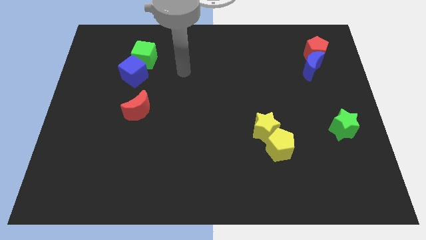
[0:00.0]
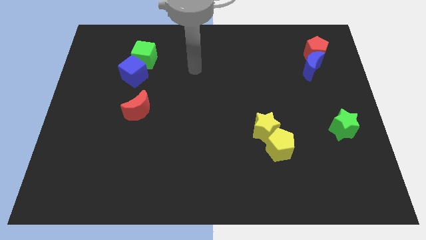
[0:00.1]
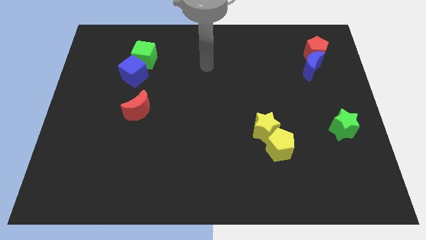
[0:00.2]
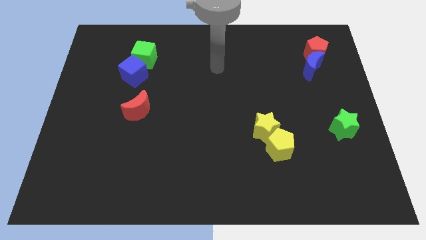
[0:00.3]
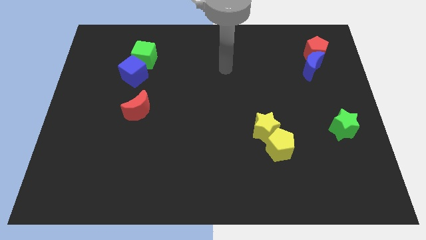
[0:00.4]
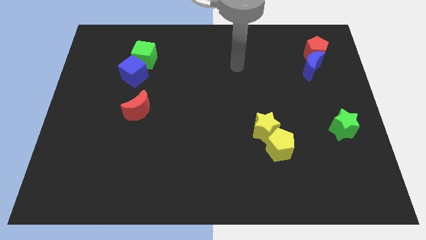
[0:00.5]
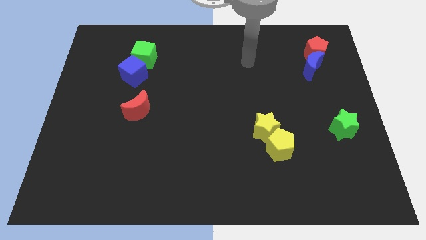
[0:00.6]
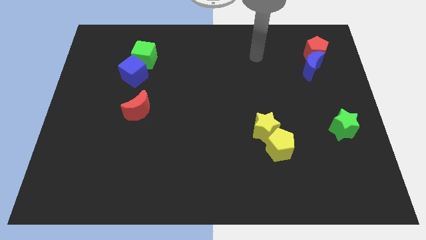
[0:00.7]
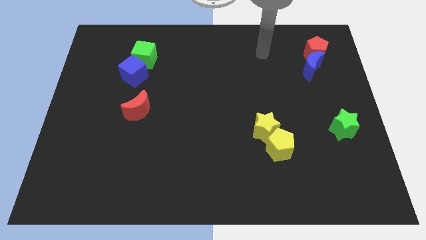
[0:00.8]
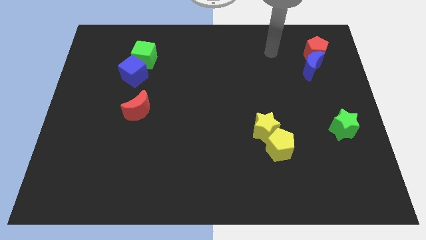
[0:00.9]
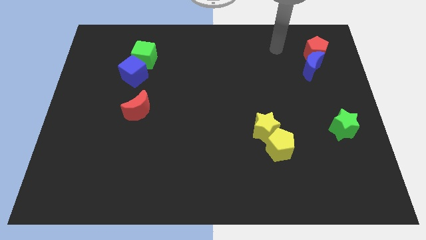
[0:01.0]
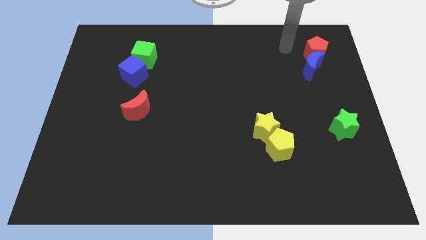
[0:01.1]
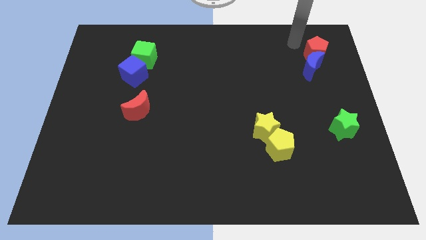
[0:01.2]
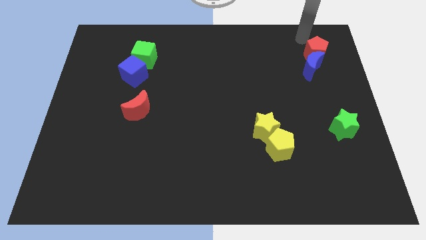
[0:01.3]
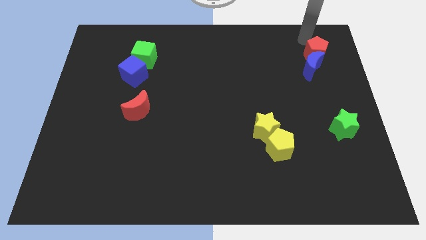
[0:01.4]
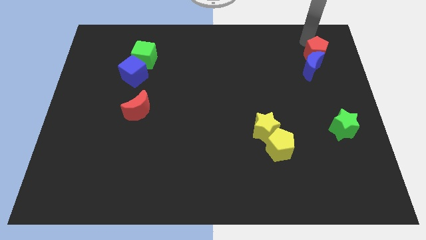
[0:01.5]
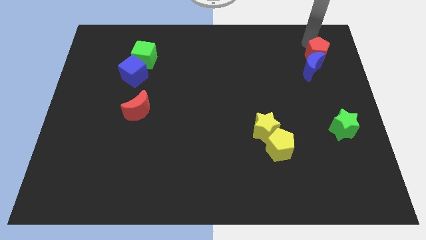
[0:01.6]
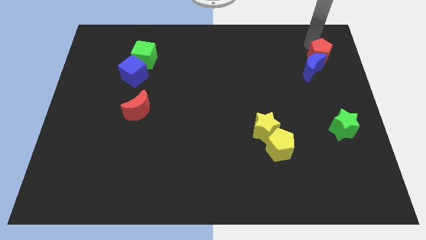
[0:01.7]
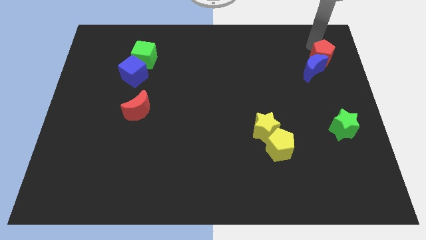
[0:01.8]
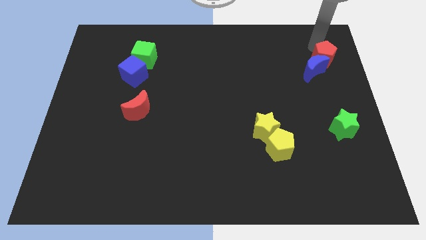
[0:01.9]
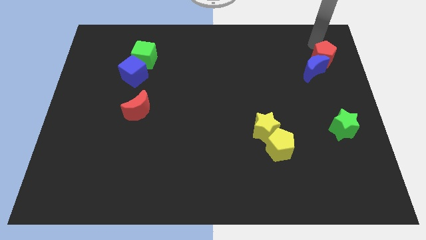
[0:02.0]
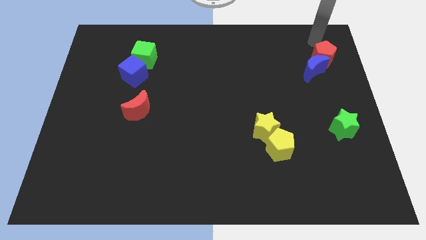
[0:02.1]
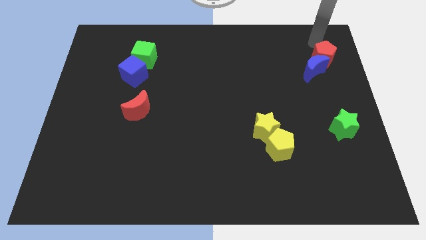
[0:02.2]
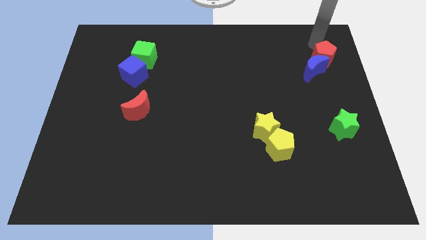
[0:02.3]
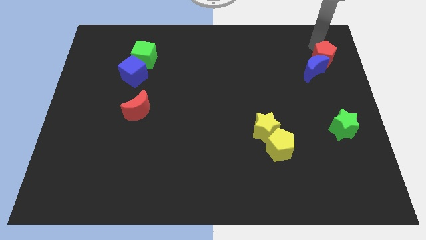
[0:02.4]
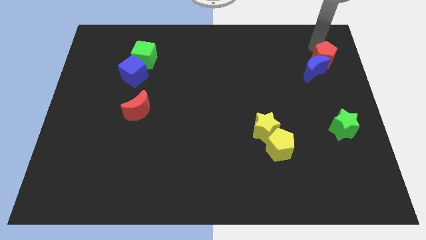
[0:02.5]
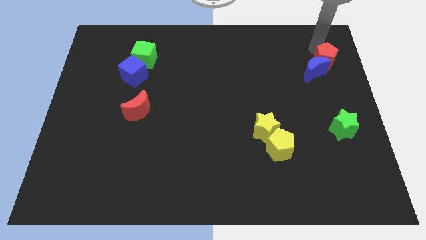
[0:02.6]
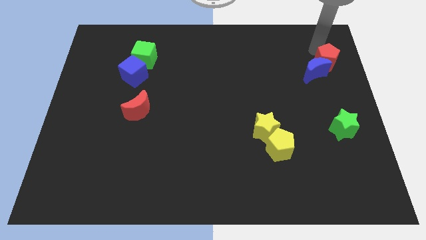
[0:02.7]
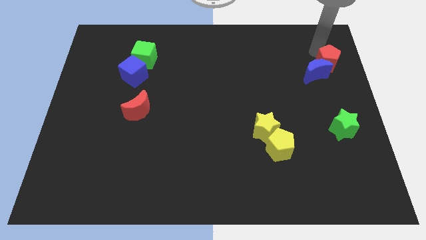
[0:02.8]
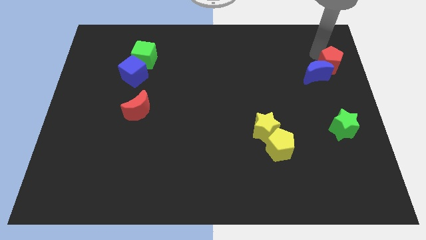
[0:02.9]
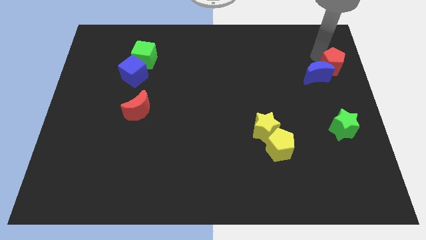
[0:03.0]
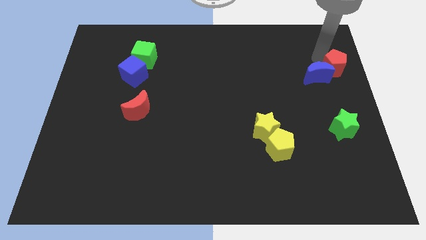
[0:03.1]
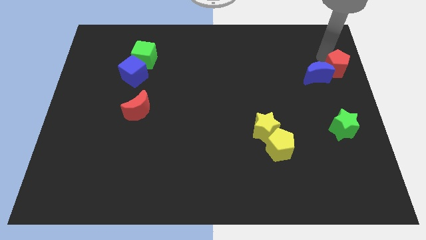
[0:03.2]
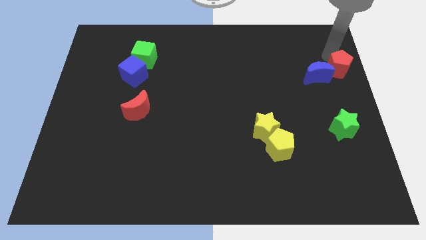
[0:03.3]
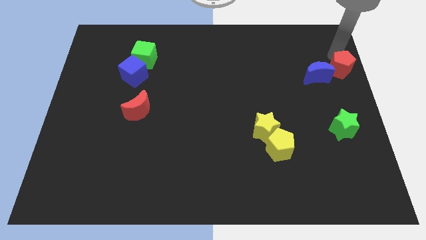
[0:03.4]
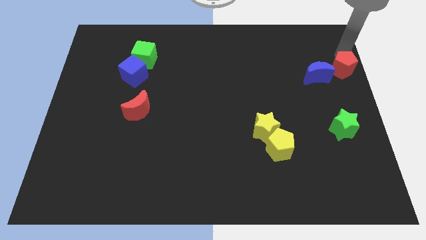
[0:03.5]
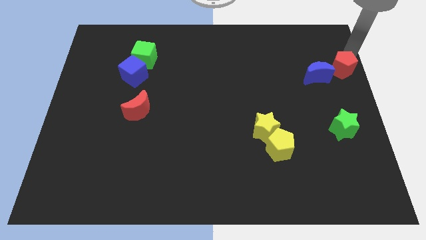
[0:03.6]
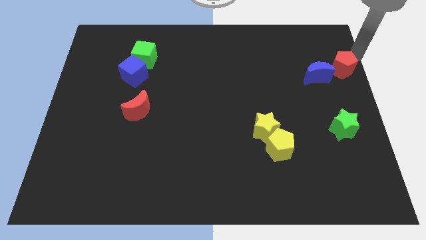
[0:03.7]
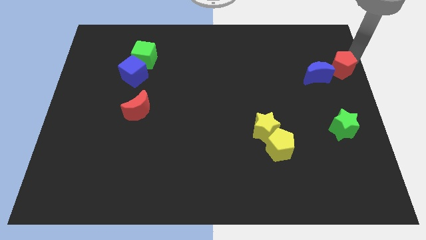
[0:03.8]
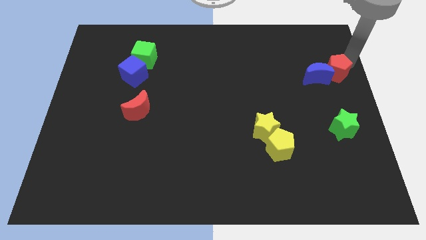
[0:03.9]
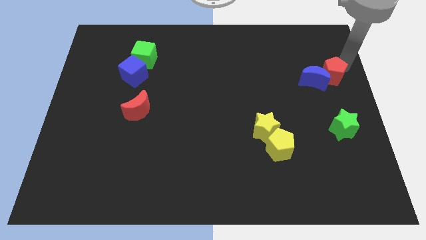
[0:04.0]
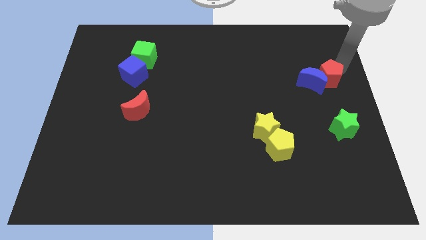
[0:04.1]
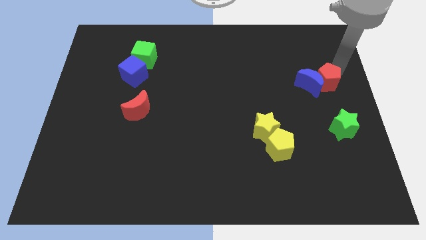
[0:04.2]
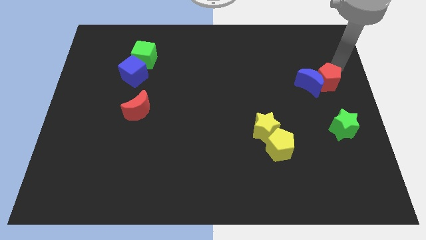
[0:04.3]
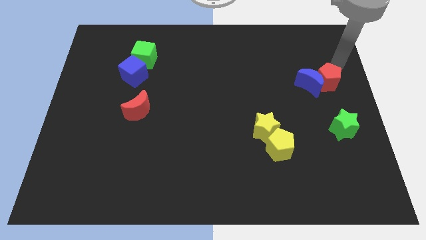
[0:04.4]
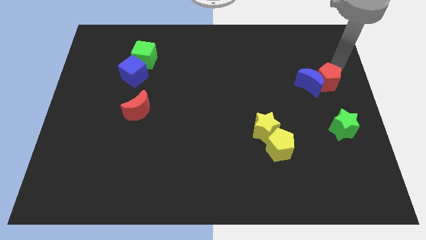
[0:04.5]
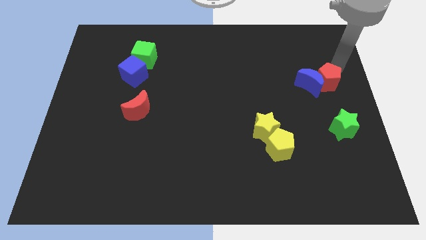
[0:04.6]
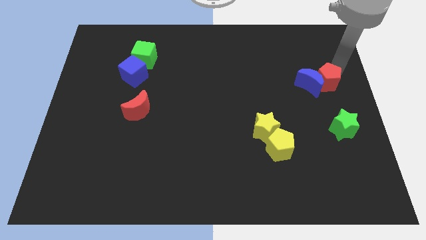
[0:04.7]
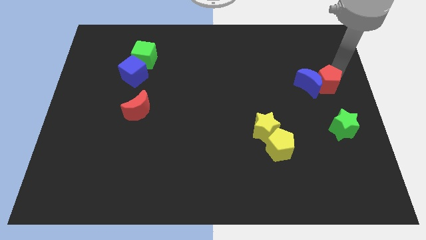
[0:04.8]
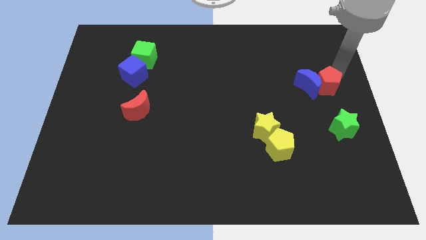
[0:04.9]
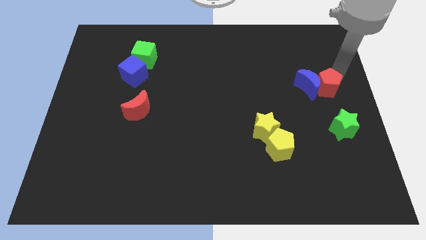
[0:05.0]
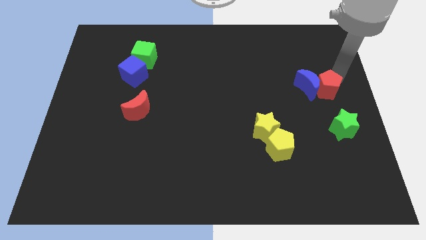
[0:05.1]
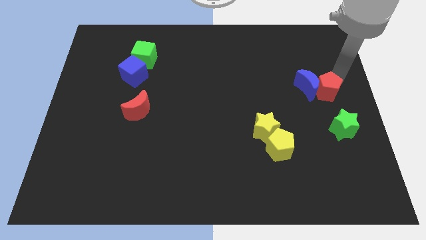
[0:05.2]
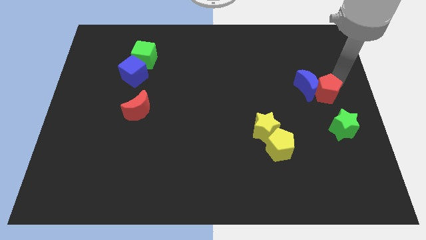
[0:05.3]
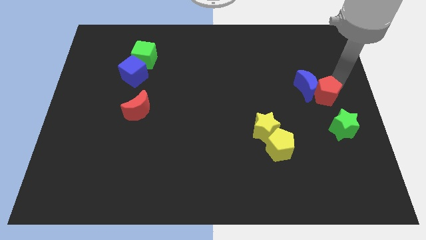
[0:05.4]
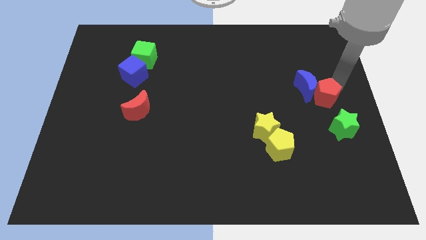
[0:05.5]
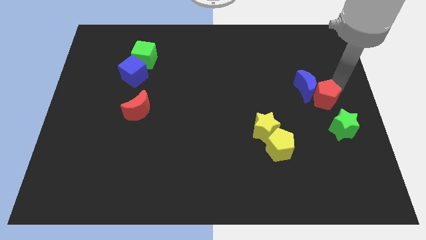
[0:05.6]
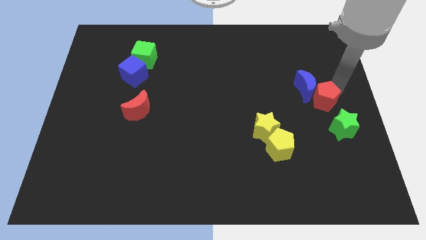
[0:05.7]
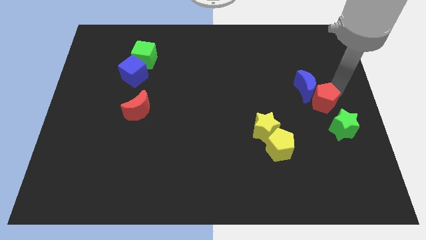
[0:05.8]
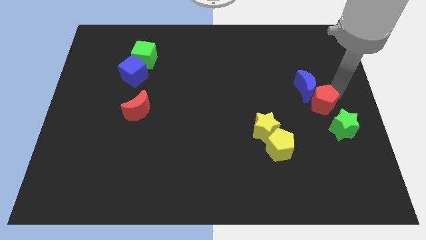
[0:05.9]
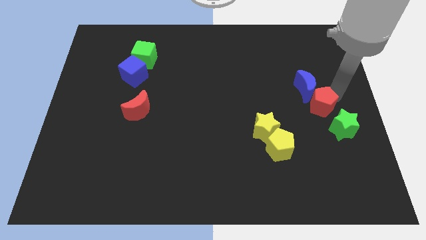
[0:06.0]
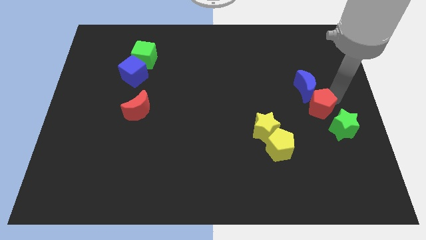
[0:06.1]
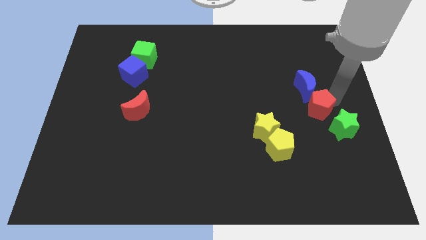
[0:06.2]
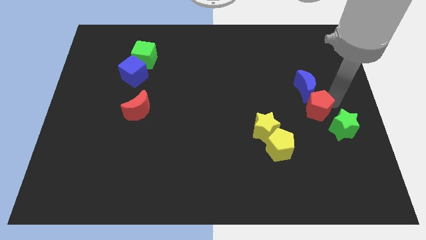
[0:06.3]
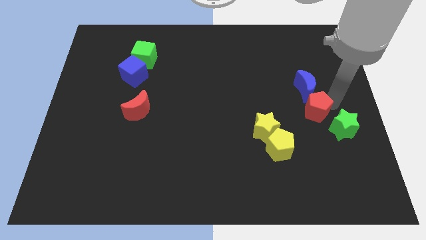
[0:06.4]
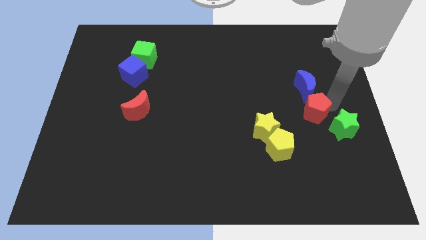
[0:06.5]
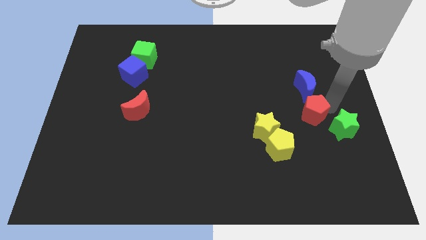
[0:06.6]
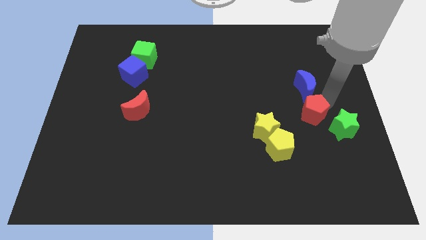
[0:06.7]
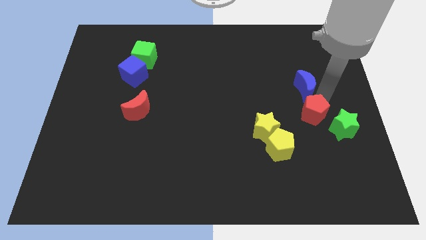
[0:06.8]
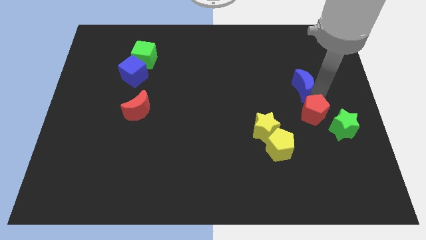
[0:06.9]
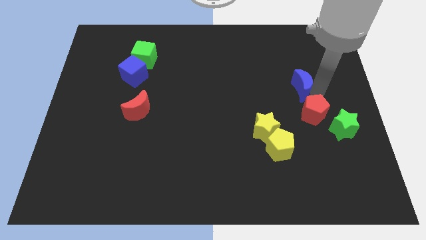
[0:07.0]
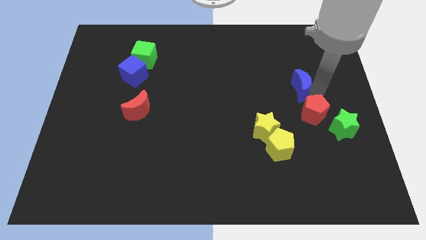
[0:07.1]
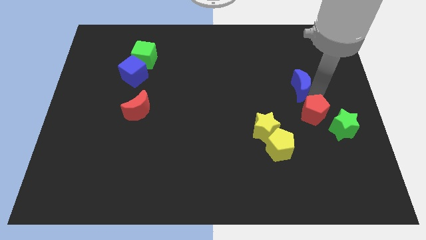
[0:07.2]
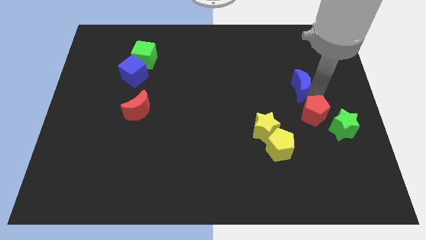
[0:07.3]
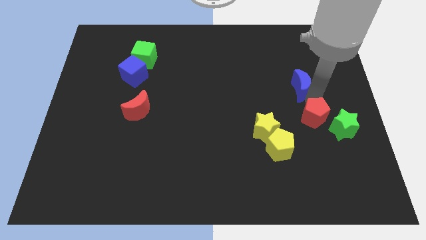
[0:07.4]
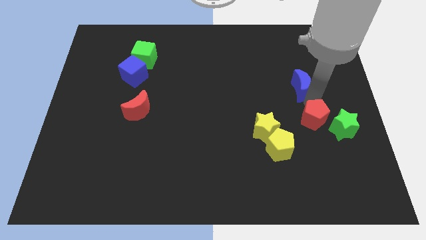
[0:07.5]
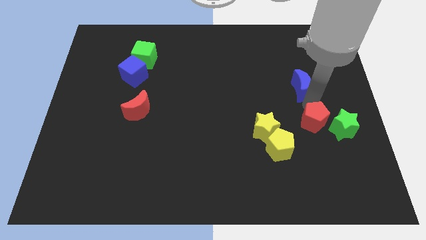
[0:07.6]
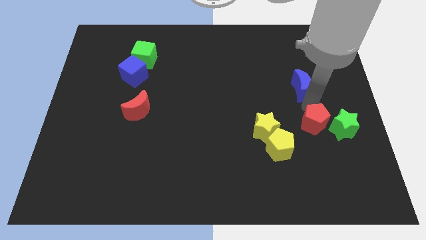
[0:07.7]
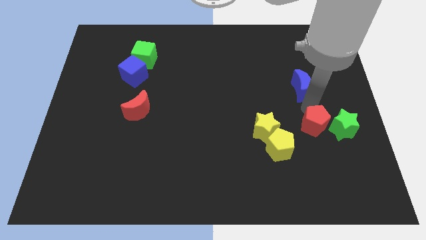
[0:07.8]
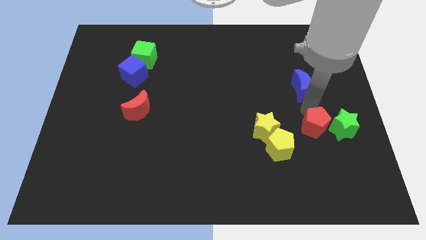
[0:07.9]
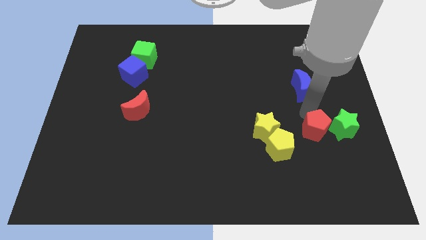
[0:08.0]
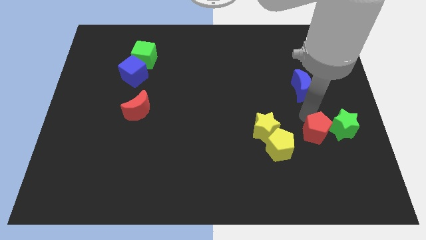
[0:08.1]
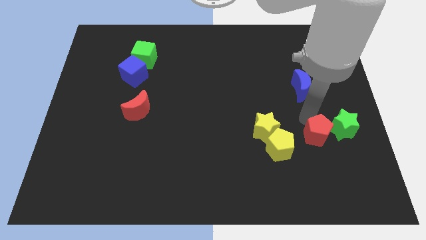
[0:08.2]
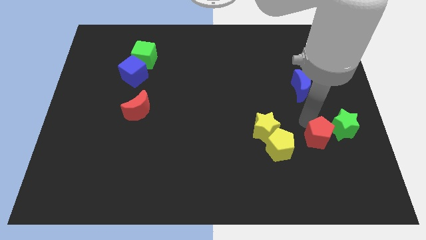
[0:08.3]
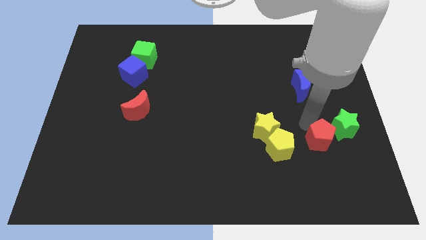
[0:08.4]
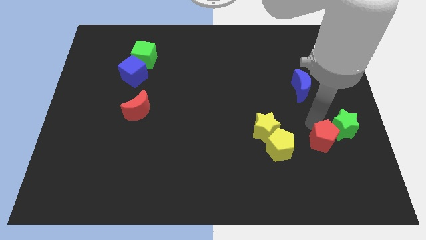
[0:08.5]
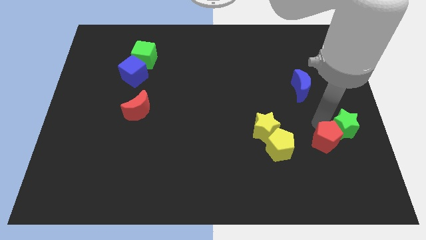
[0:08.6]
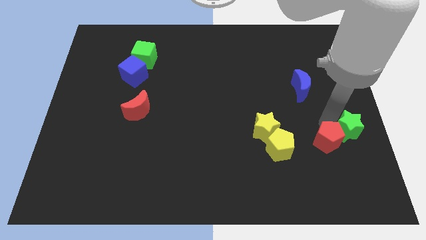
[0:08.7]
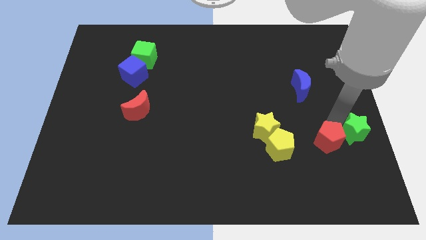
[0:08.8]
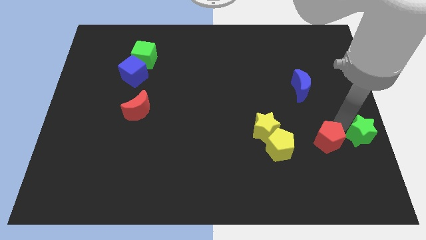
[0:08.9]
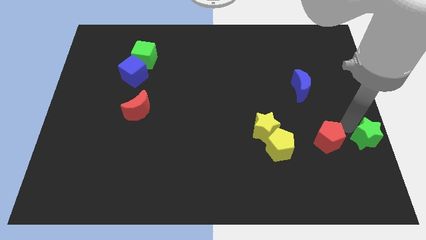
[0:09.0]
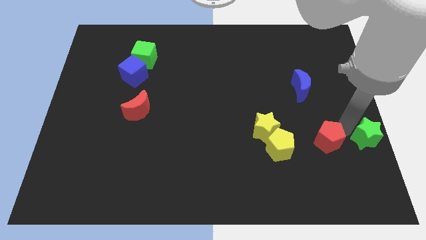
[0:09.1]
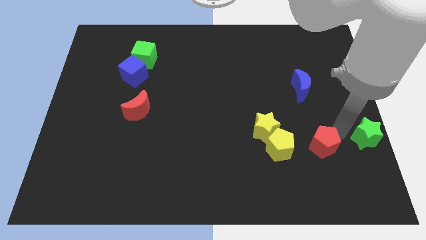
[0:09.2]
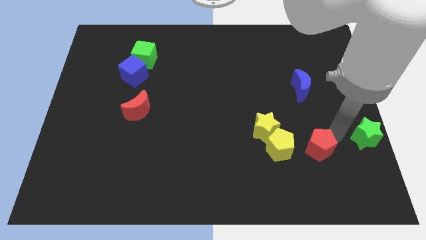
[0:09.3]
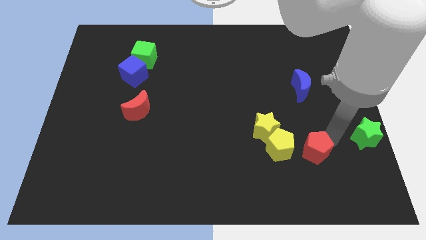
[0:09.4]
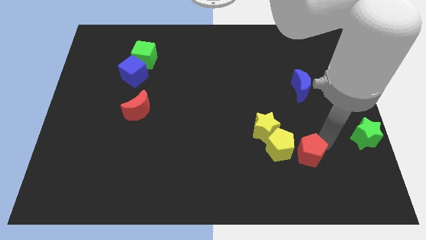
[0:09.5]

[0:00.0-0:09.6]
push the red pentagon to the bottom right of the yellow pentagon
